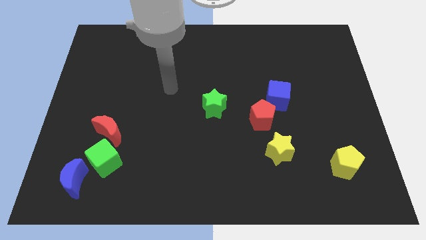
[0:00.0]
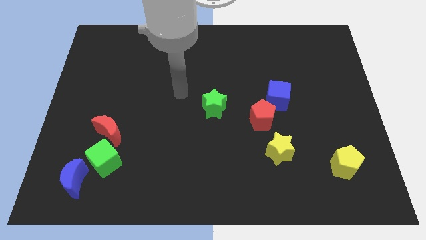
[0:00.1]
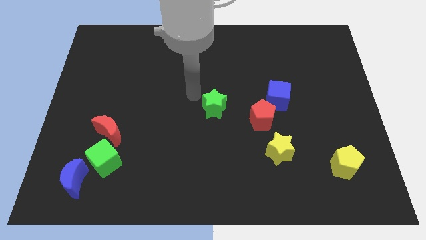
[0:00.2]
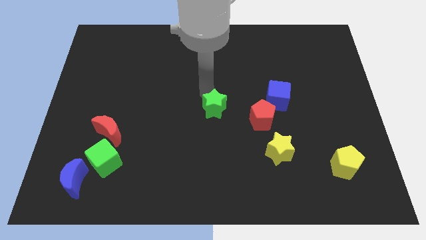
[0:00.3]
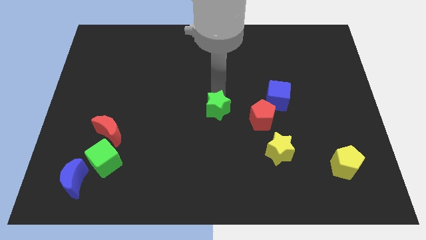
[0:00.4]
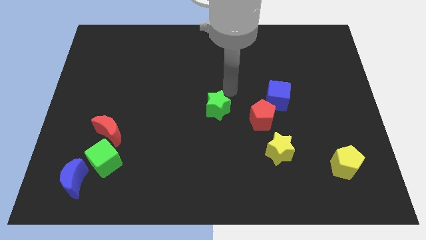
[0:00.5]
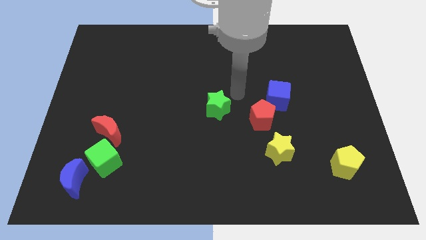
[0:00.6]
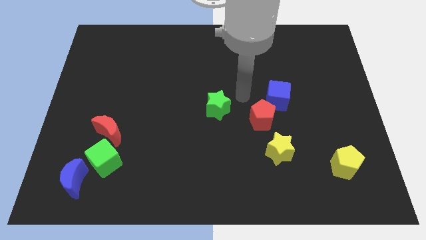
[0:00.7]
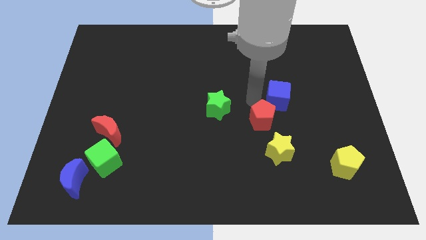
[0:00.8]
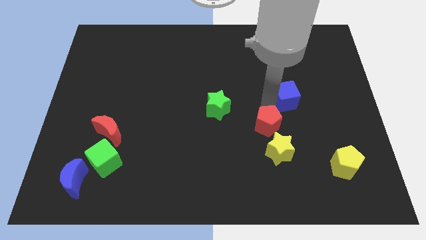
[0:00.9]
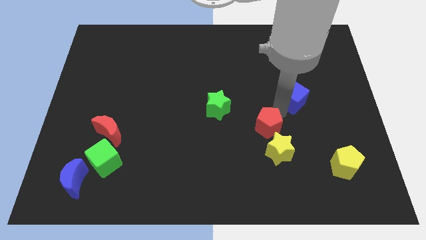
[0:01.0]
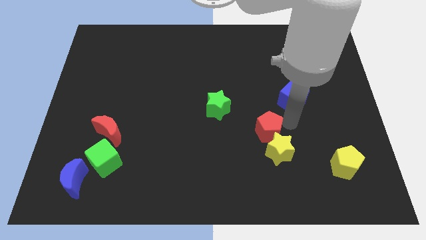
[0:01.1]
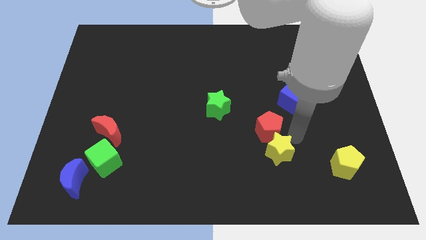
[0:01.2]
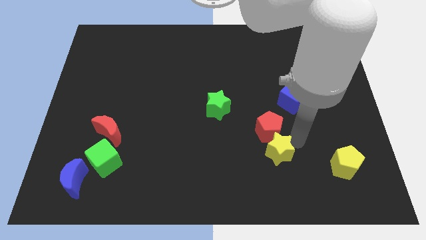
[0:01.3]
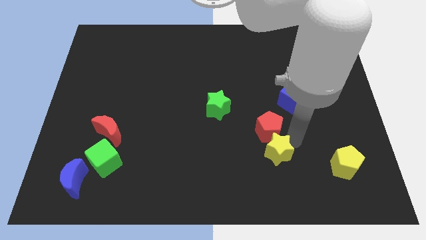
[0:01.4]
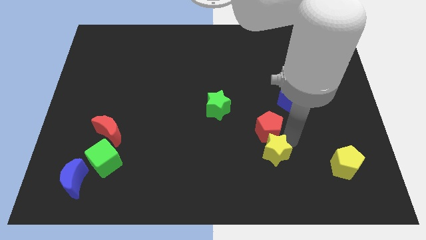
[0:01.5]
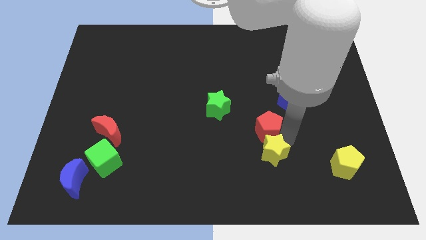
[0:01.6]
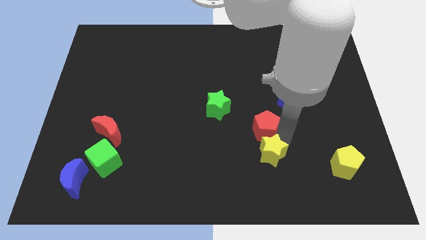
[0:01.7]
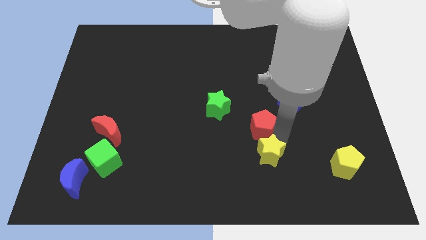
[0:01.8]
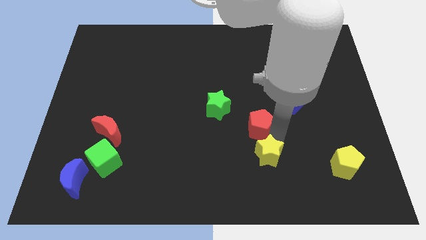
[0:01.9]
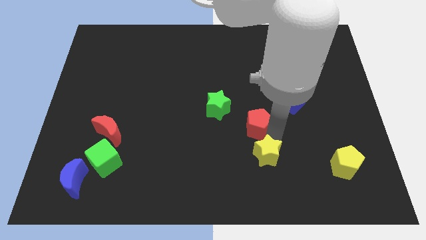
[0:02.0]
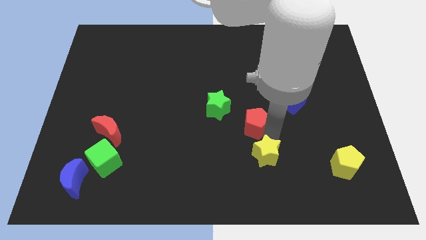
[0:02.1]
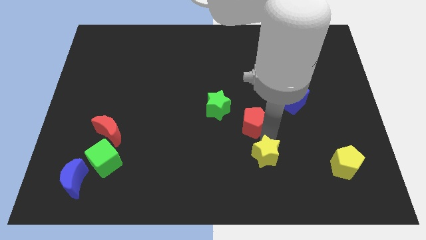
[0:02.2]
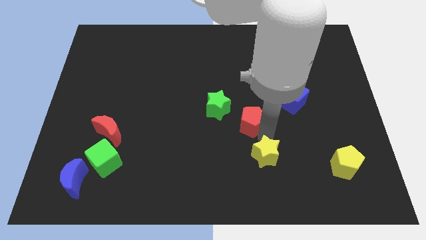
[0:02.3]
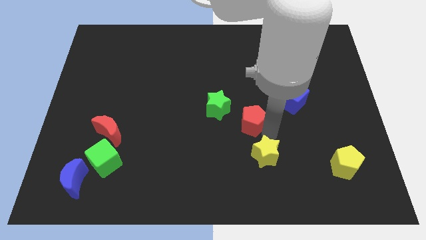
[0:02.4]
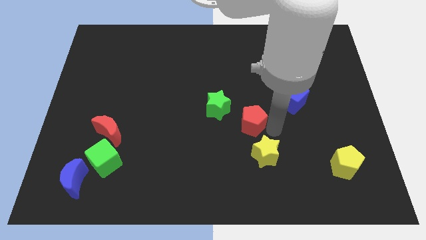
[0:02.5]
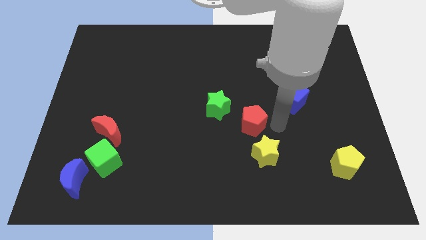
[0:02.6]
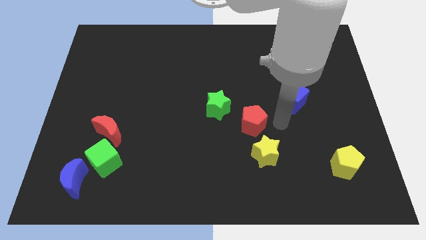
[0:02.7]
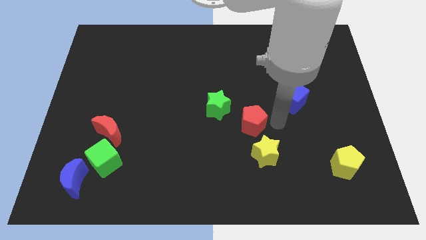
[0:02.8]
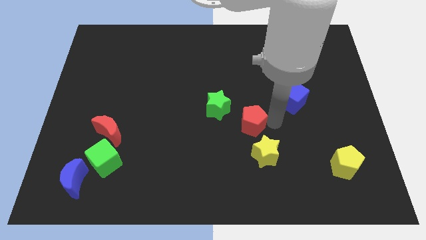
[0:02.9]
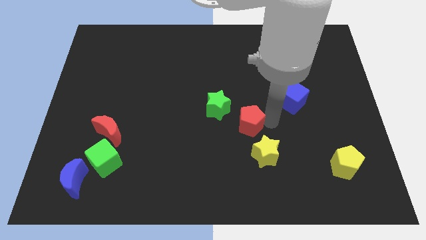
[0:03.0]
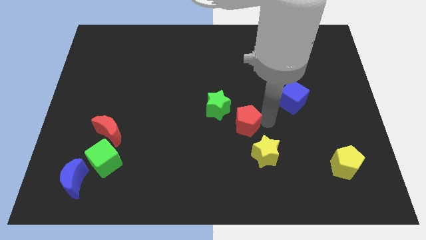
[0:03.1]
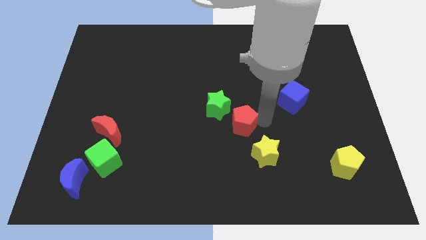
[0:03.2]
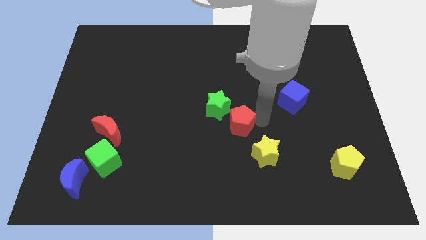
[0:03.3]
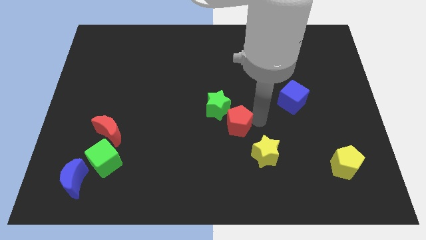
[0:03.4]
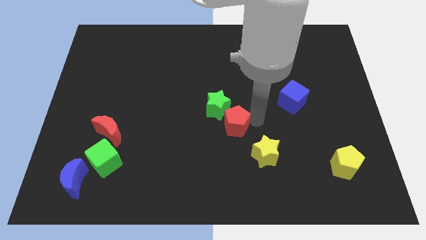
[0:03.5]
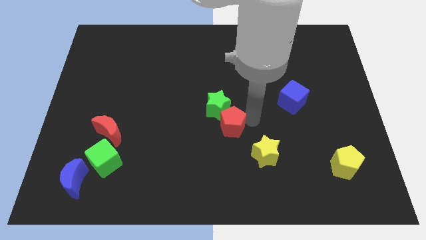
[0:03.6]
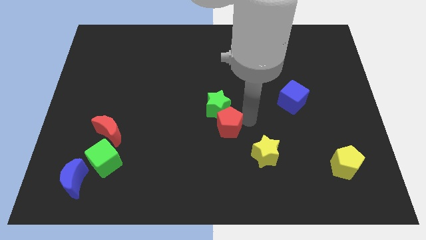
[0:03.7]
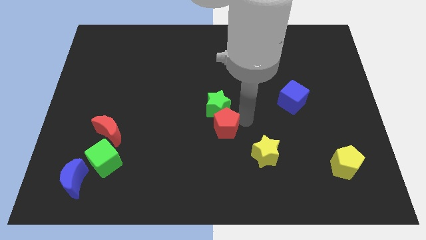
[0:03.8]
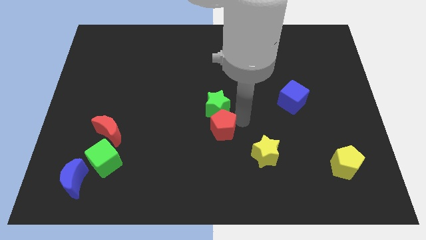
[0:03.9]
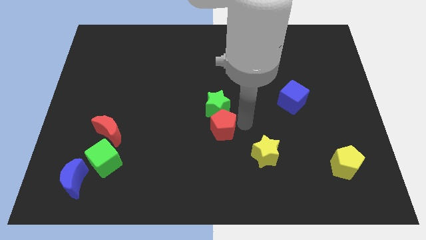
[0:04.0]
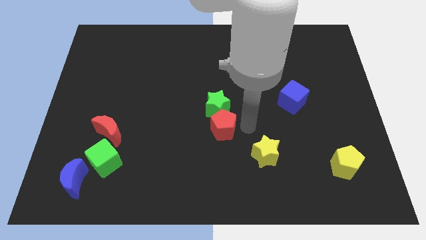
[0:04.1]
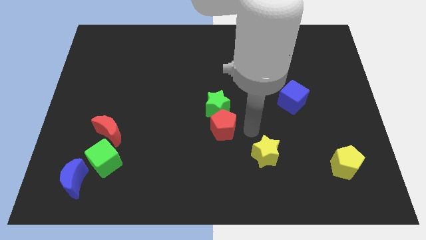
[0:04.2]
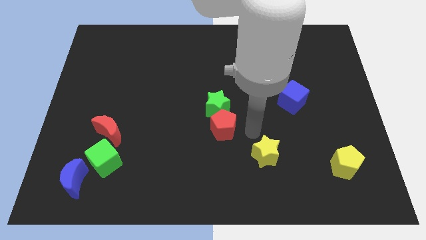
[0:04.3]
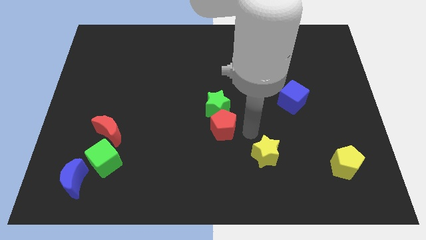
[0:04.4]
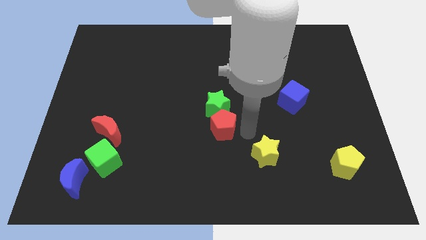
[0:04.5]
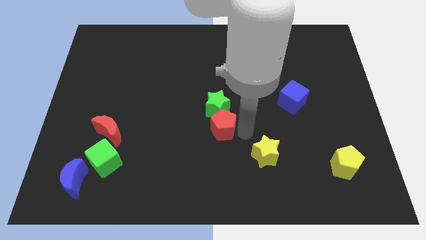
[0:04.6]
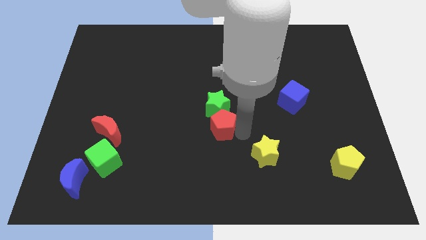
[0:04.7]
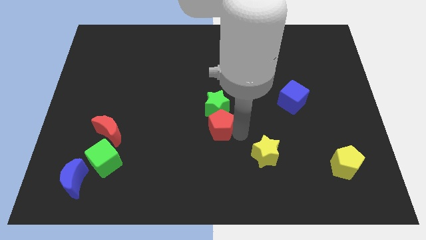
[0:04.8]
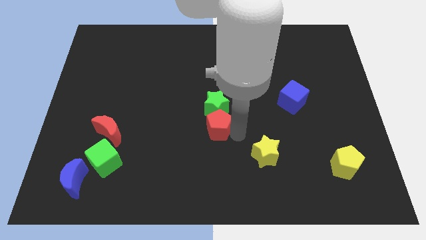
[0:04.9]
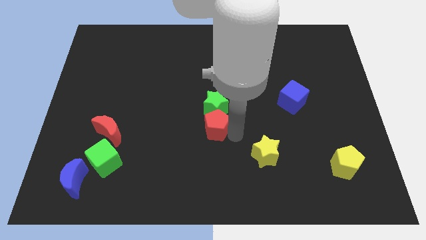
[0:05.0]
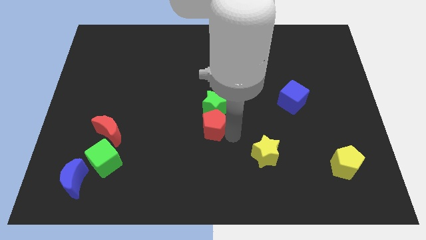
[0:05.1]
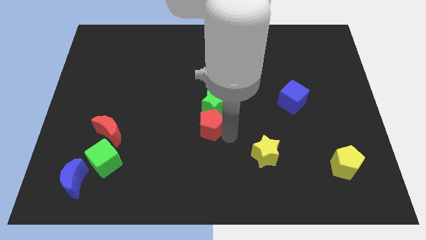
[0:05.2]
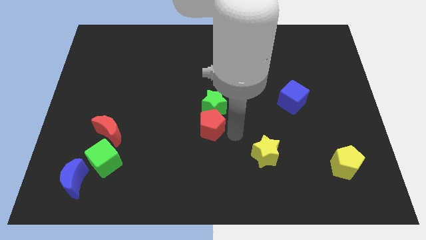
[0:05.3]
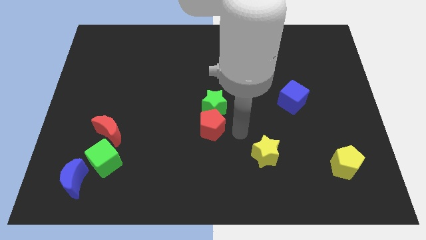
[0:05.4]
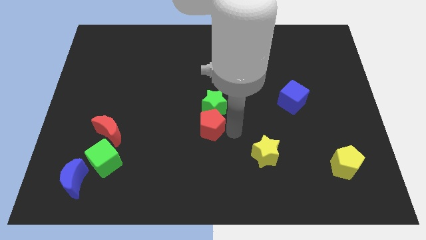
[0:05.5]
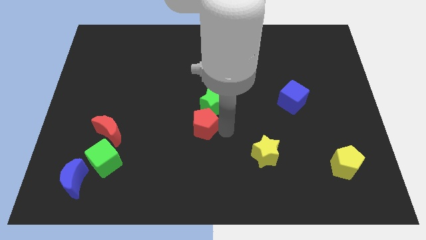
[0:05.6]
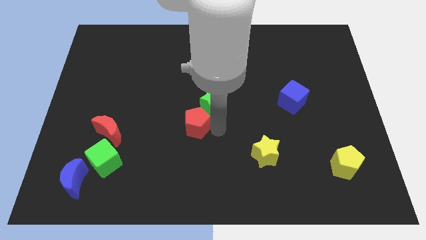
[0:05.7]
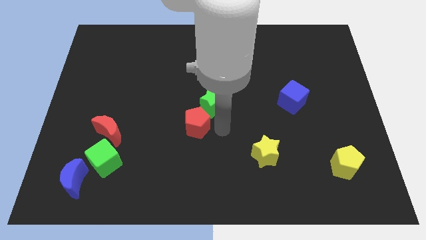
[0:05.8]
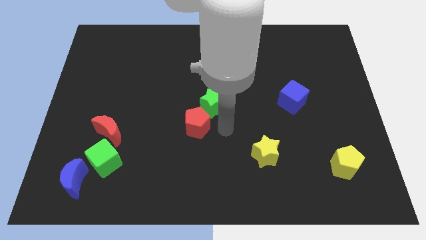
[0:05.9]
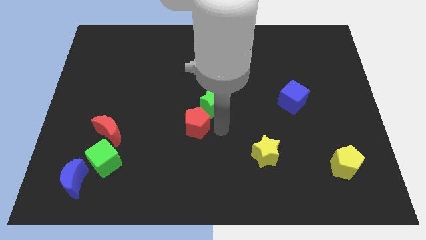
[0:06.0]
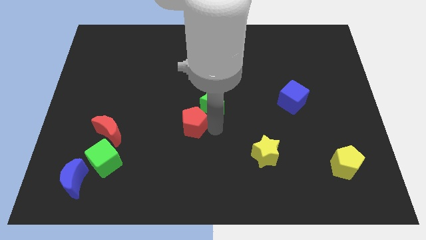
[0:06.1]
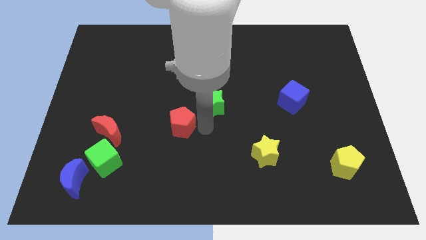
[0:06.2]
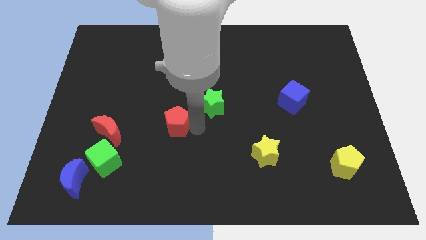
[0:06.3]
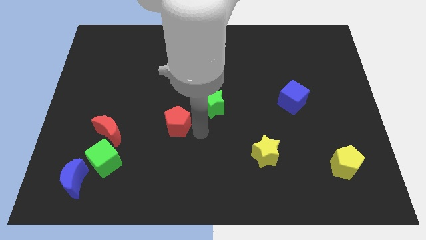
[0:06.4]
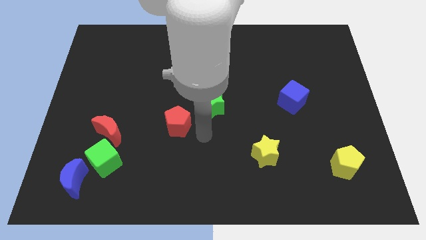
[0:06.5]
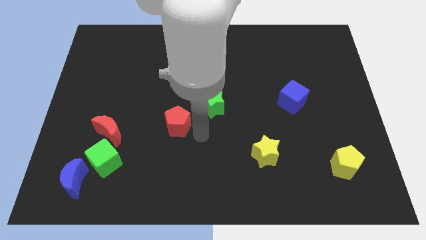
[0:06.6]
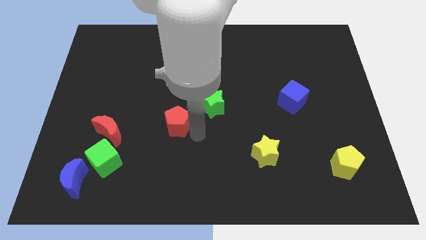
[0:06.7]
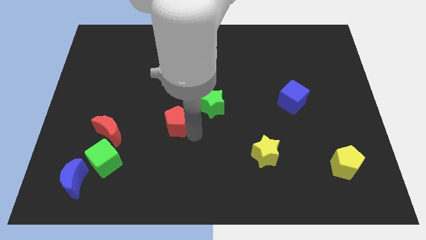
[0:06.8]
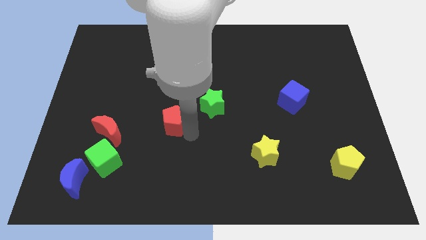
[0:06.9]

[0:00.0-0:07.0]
move the red pentagon left

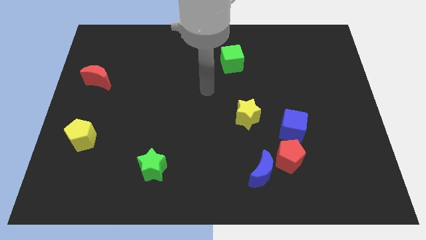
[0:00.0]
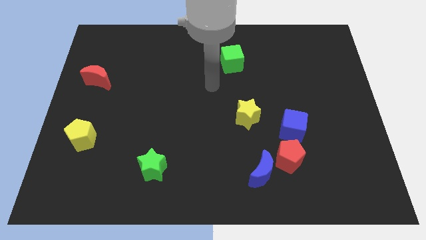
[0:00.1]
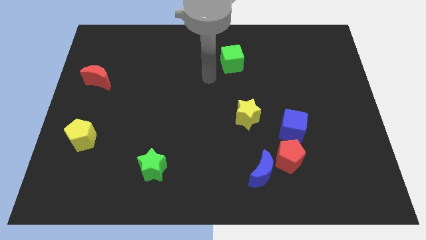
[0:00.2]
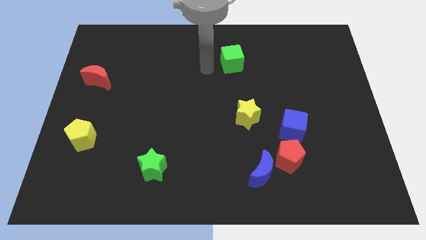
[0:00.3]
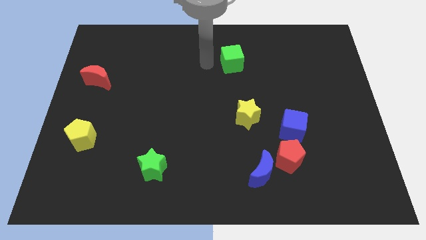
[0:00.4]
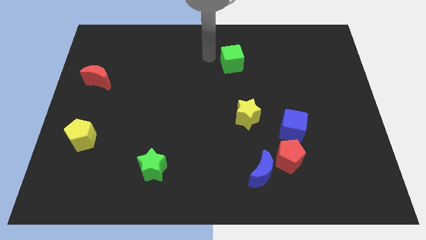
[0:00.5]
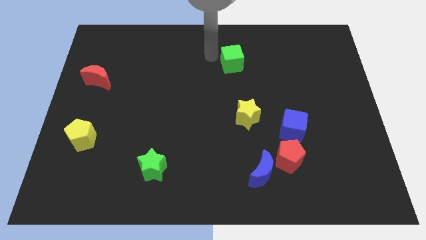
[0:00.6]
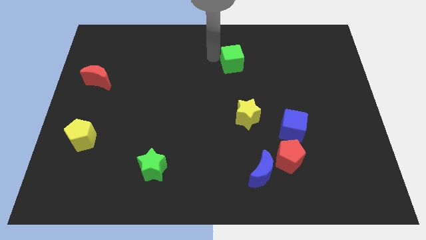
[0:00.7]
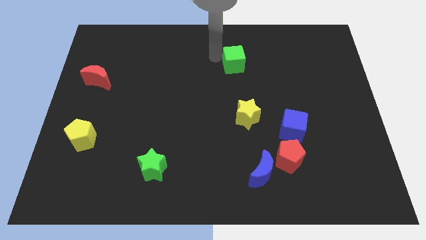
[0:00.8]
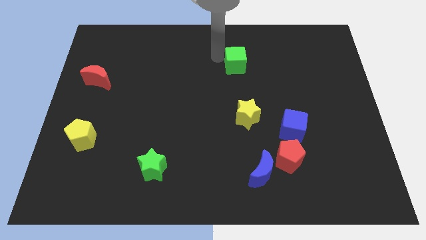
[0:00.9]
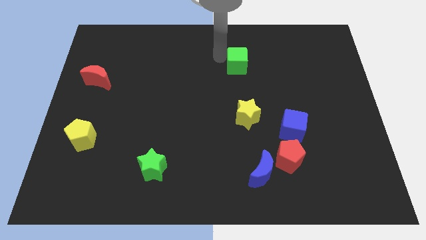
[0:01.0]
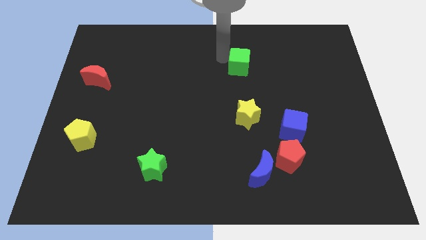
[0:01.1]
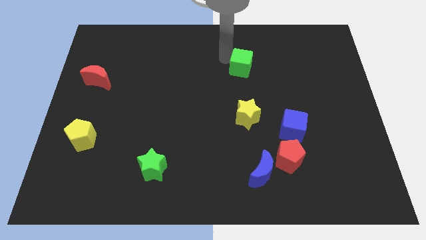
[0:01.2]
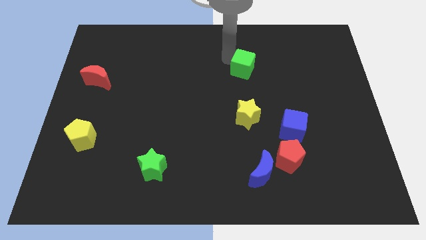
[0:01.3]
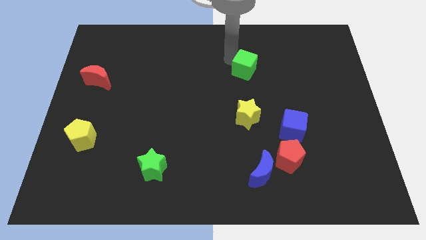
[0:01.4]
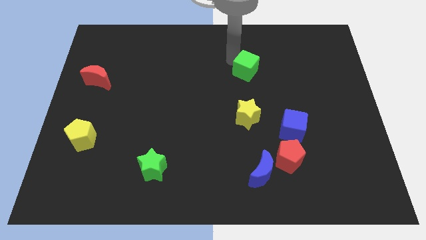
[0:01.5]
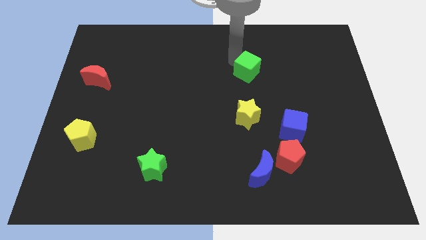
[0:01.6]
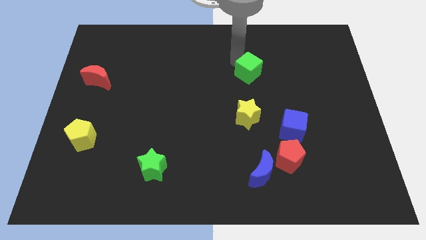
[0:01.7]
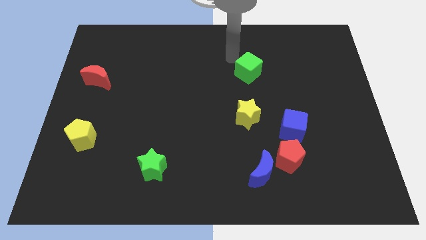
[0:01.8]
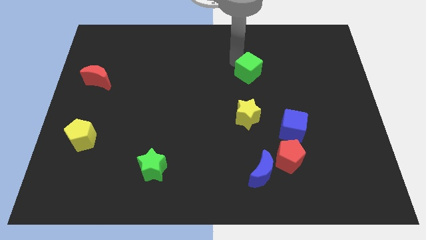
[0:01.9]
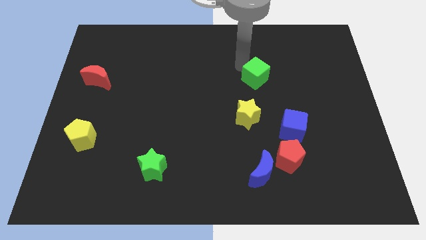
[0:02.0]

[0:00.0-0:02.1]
slightly push the green cube down and to the right diagonally
